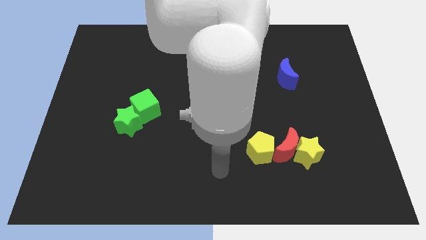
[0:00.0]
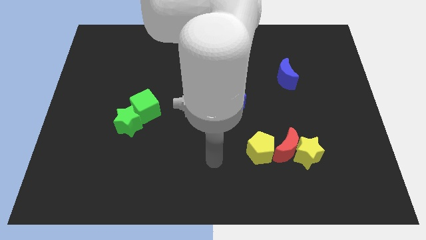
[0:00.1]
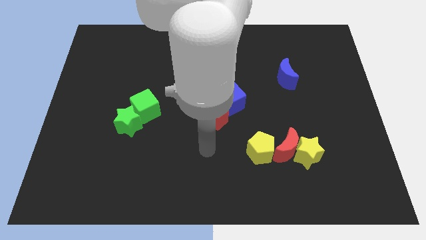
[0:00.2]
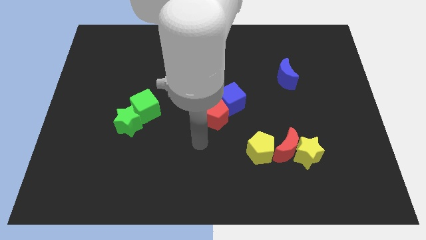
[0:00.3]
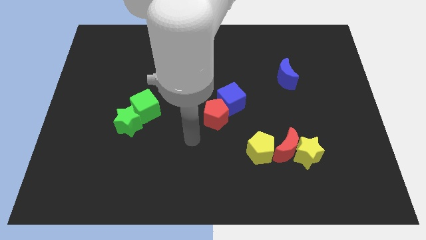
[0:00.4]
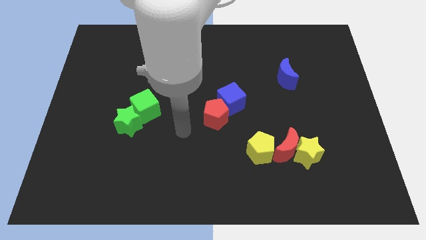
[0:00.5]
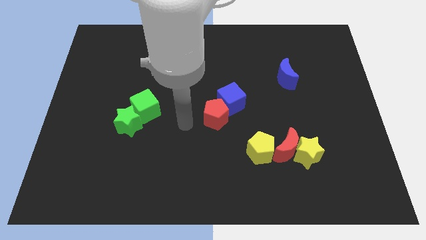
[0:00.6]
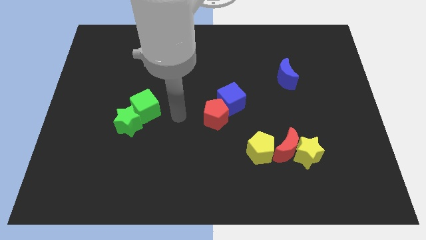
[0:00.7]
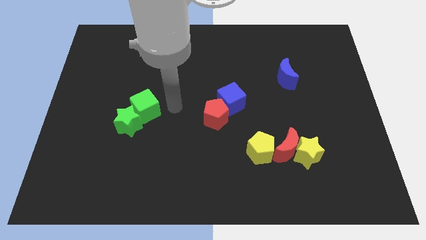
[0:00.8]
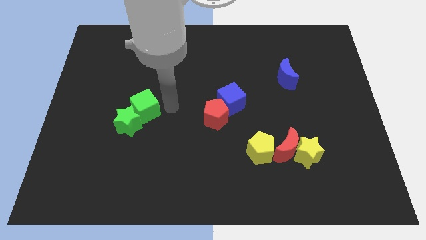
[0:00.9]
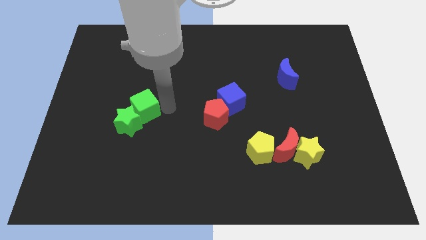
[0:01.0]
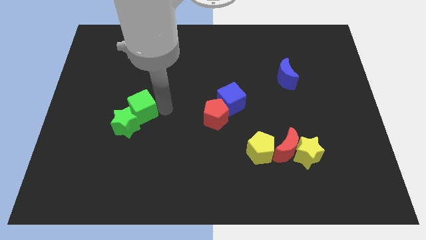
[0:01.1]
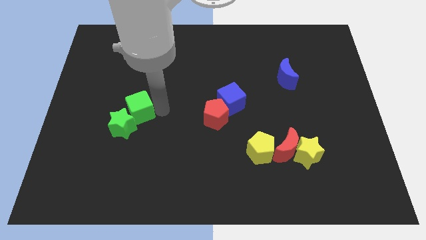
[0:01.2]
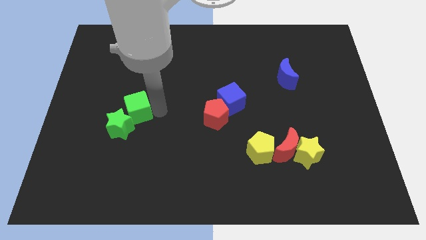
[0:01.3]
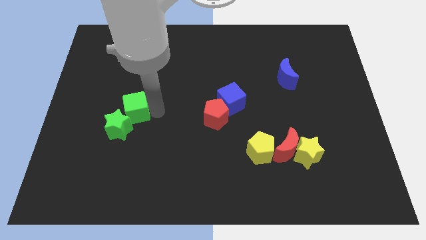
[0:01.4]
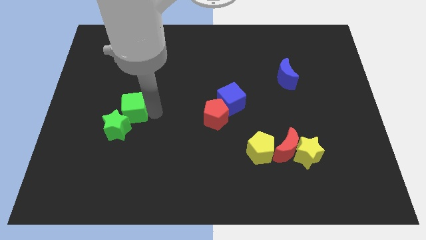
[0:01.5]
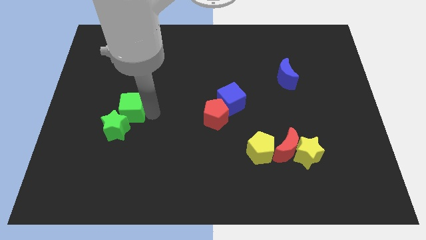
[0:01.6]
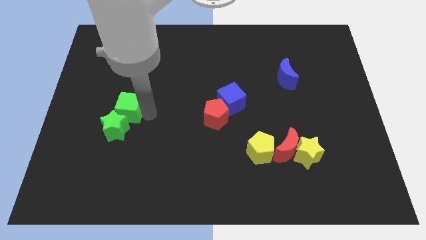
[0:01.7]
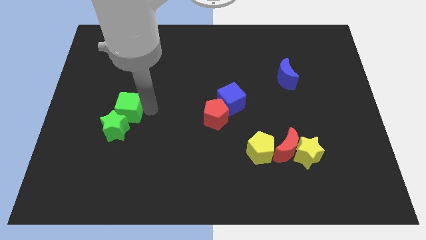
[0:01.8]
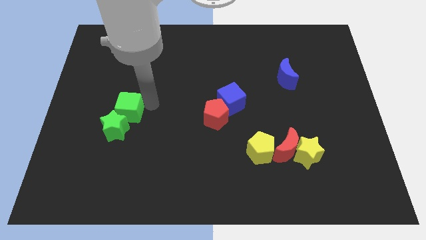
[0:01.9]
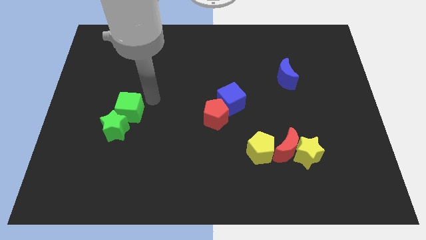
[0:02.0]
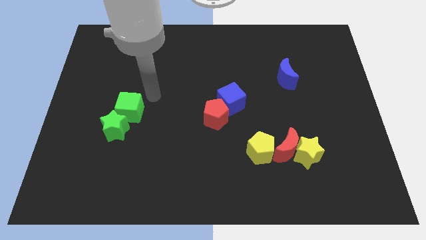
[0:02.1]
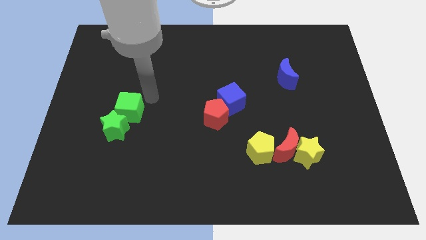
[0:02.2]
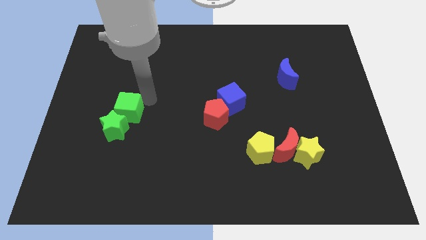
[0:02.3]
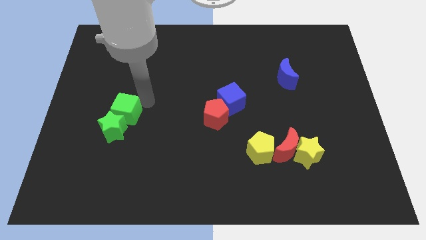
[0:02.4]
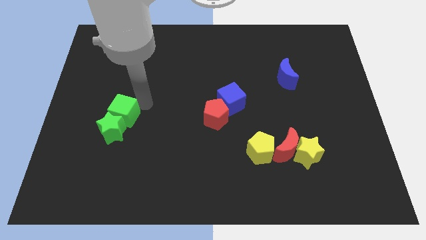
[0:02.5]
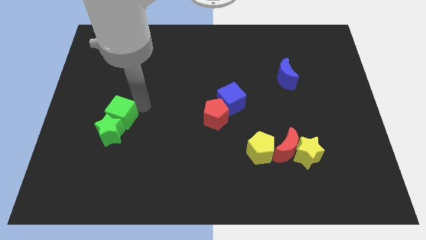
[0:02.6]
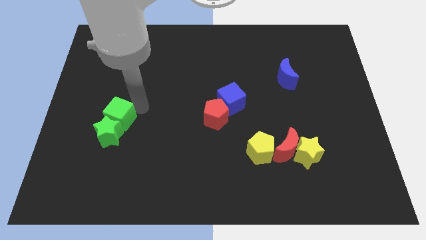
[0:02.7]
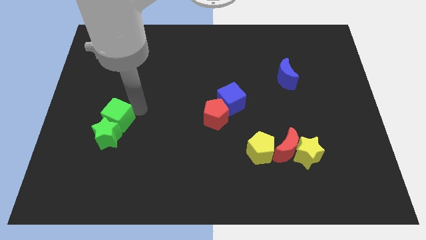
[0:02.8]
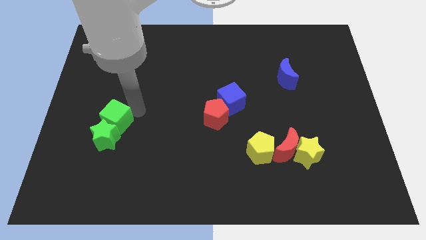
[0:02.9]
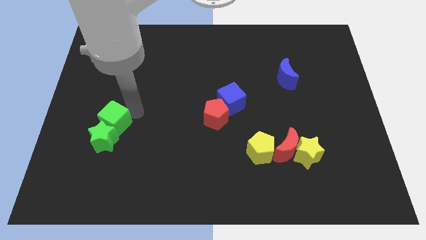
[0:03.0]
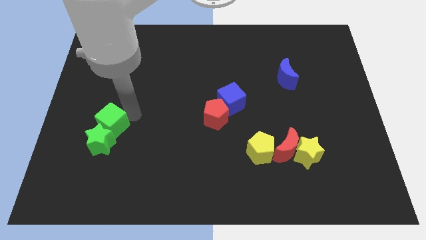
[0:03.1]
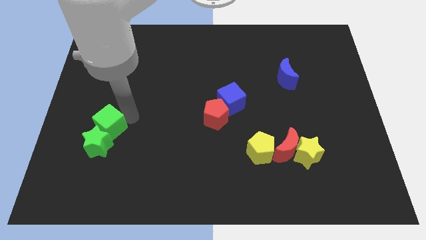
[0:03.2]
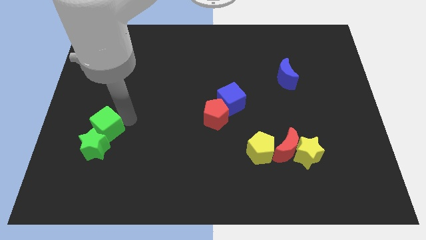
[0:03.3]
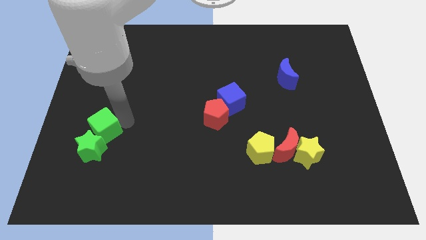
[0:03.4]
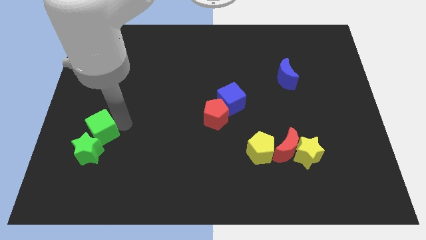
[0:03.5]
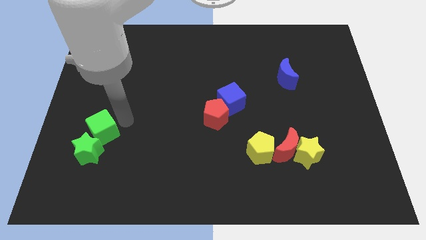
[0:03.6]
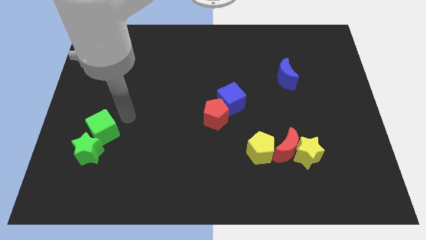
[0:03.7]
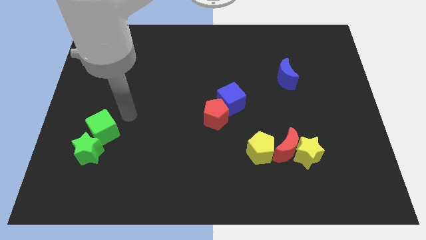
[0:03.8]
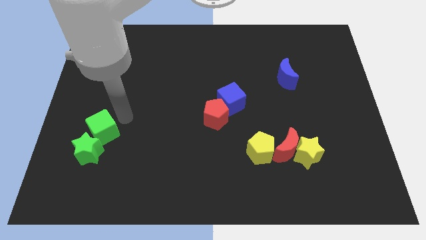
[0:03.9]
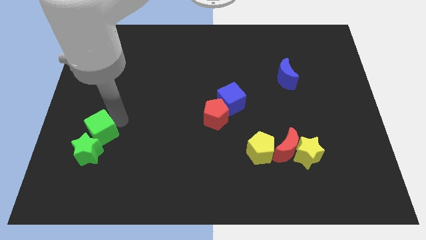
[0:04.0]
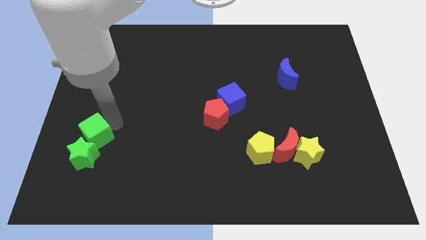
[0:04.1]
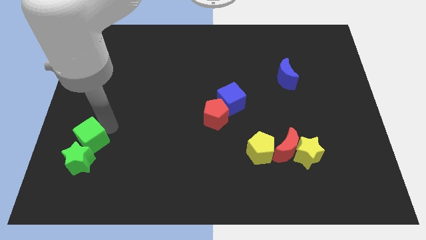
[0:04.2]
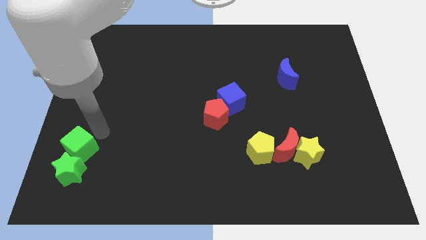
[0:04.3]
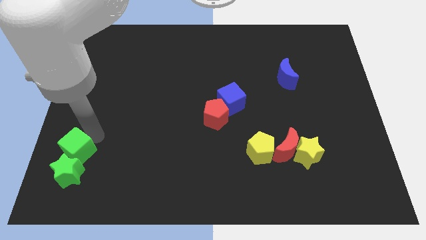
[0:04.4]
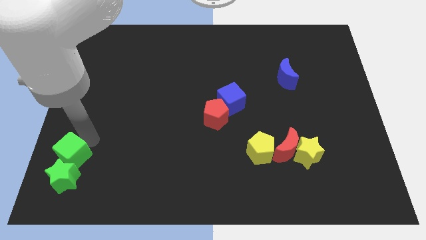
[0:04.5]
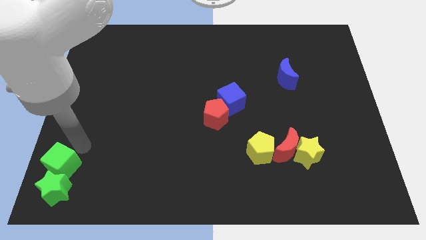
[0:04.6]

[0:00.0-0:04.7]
slide the green cube to the bottom left of the board

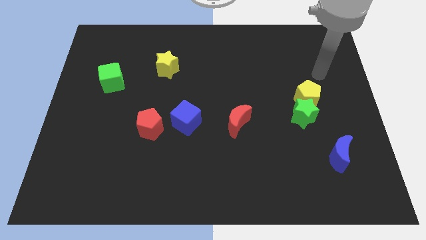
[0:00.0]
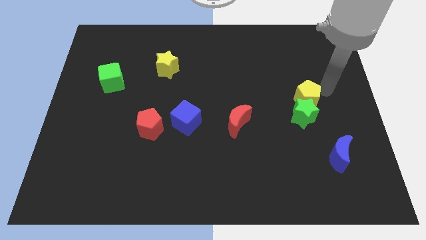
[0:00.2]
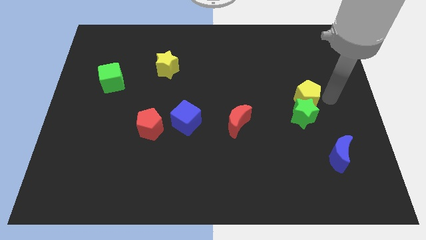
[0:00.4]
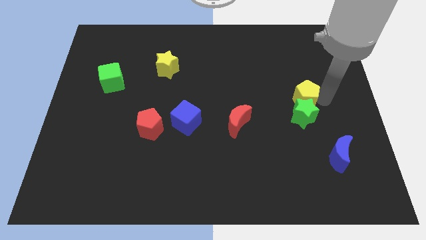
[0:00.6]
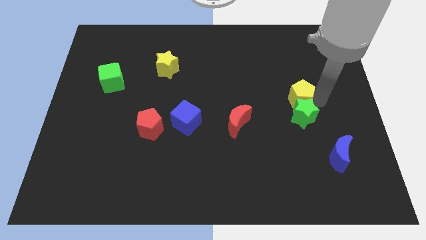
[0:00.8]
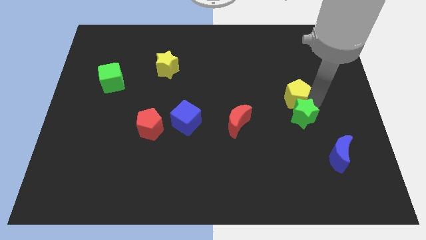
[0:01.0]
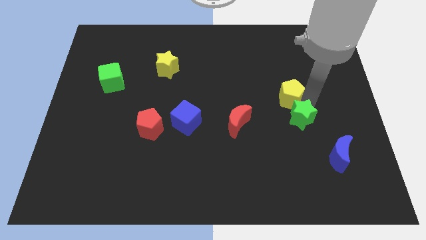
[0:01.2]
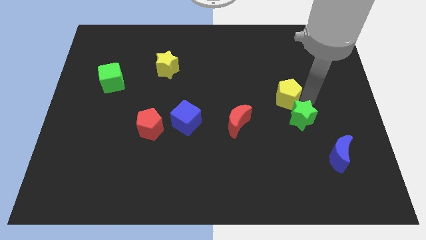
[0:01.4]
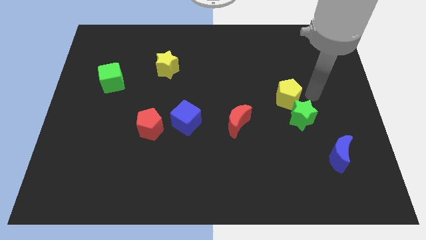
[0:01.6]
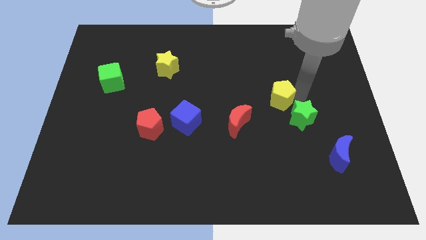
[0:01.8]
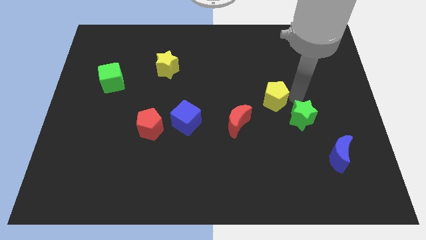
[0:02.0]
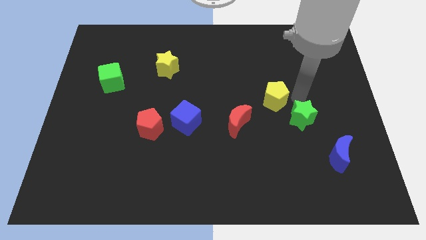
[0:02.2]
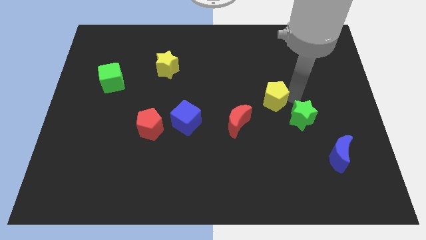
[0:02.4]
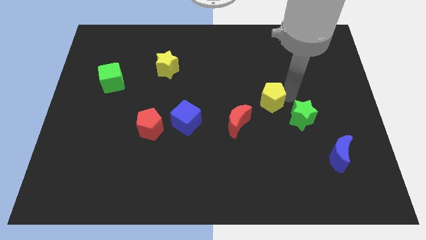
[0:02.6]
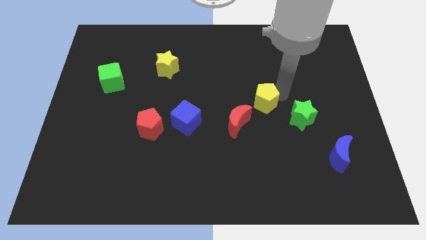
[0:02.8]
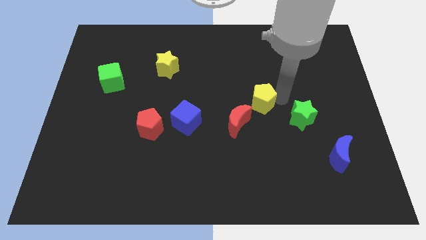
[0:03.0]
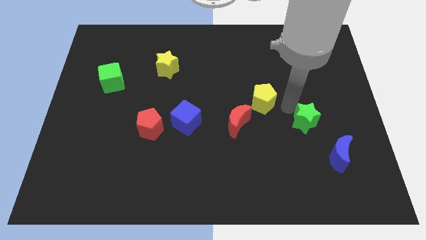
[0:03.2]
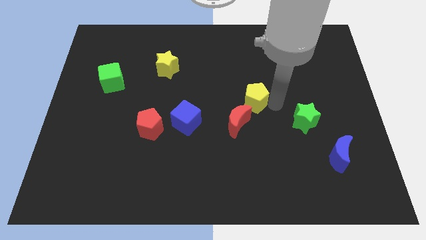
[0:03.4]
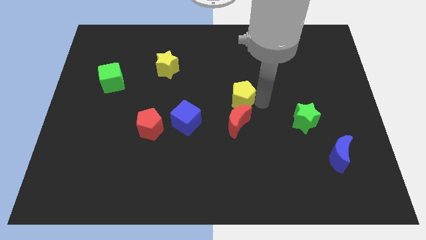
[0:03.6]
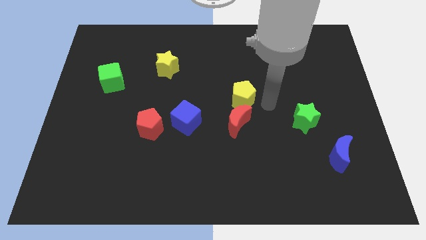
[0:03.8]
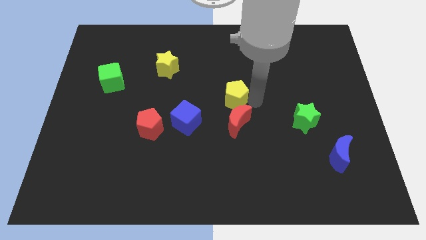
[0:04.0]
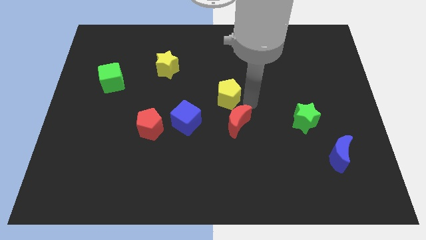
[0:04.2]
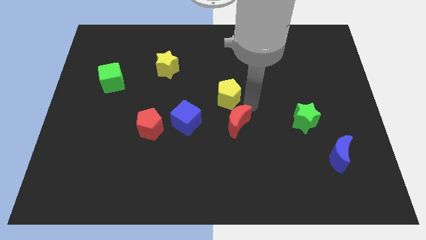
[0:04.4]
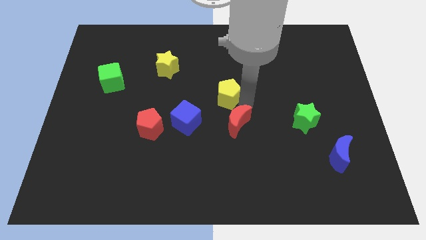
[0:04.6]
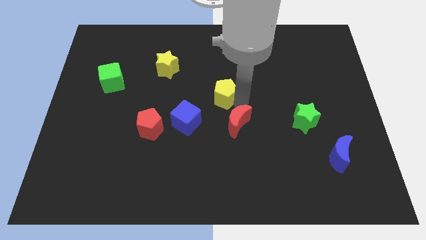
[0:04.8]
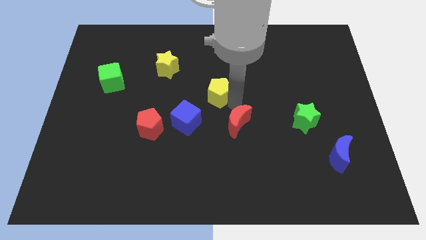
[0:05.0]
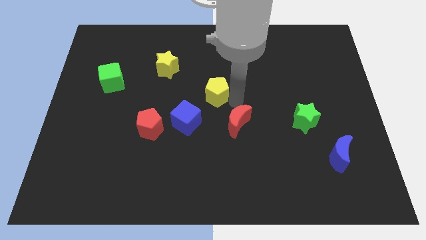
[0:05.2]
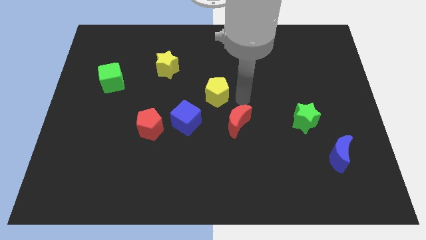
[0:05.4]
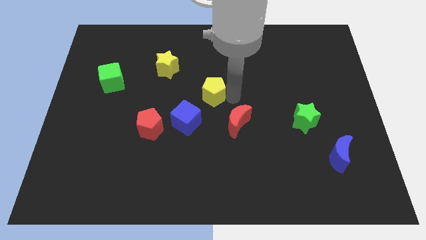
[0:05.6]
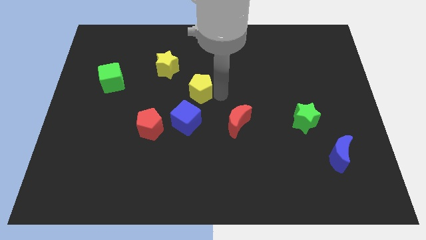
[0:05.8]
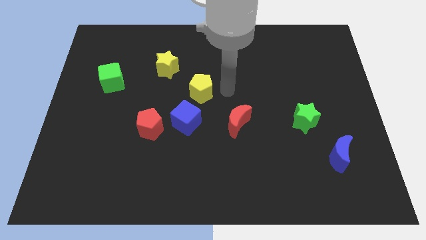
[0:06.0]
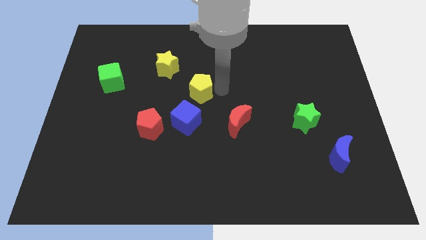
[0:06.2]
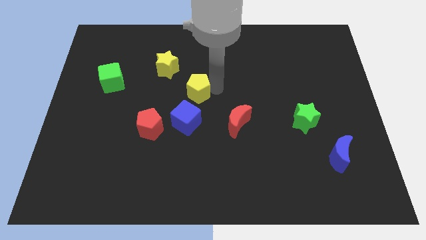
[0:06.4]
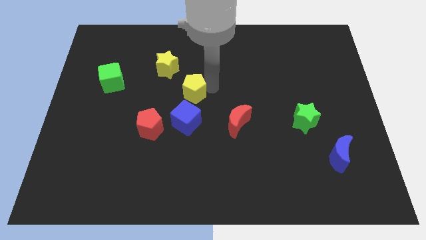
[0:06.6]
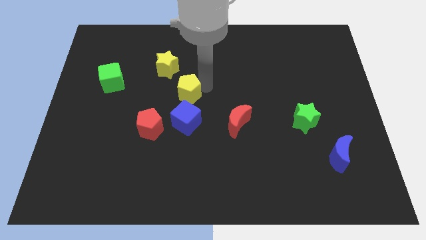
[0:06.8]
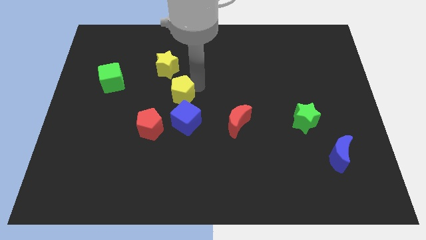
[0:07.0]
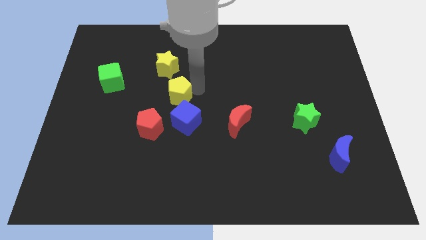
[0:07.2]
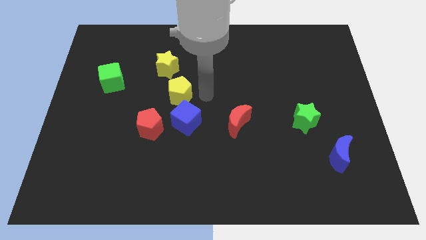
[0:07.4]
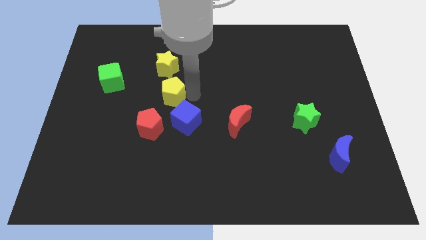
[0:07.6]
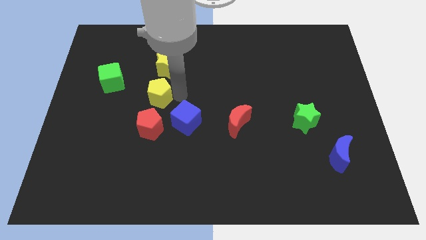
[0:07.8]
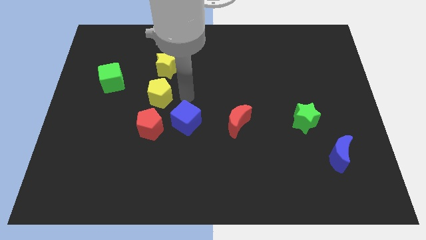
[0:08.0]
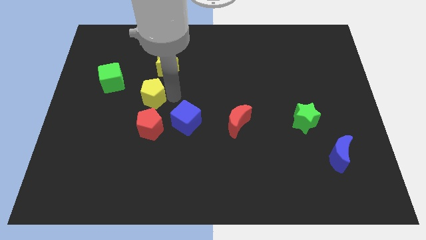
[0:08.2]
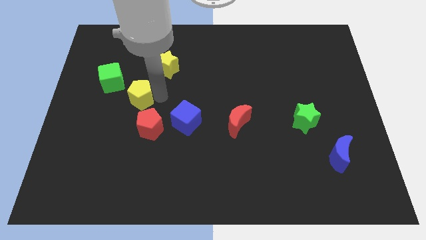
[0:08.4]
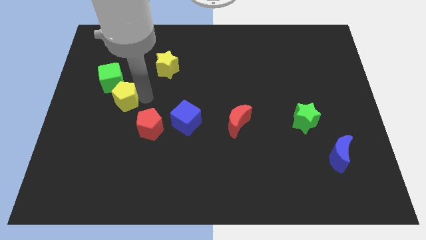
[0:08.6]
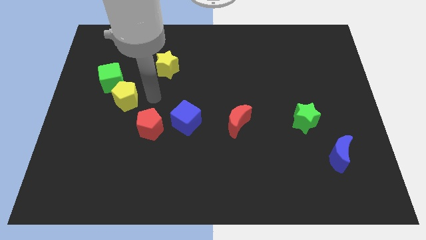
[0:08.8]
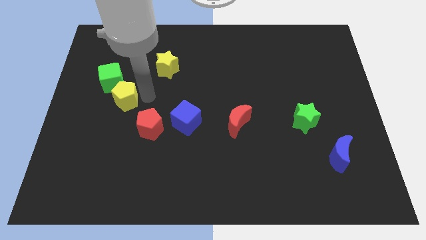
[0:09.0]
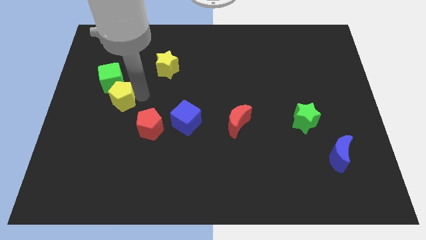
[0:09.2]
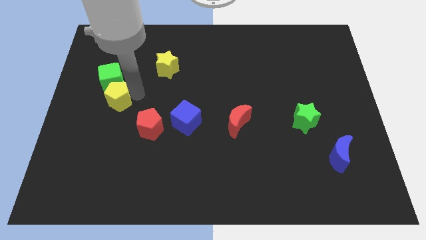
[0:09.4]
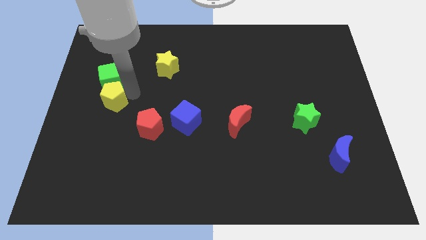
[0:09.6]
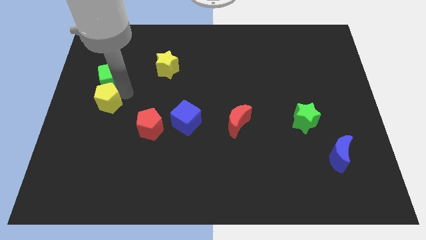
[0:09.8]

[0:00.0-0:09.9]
push the yellow pentagon to the left side of the board
